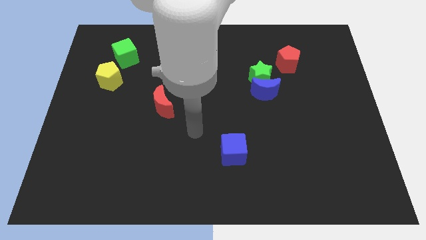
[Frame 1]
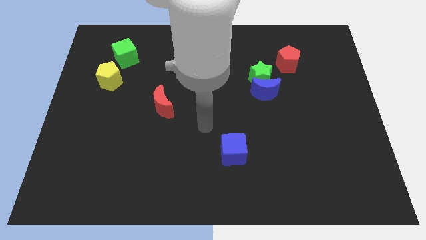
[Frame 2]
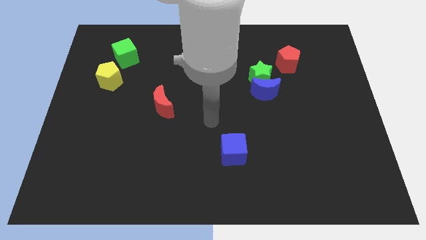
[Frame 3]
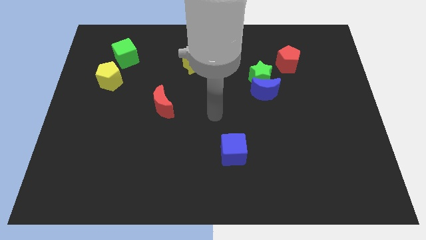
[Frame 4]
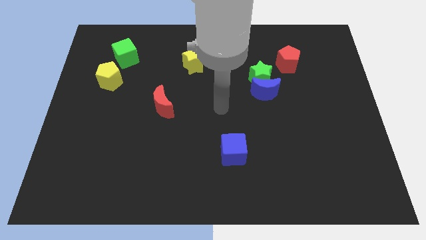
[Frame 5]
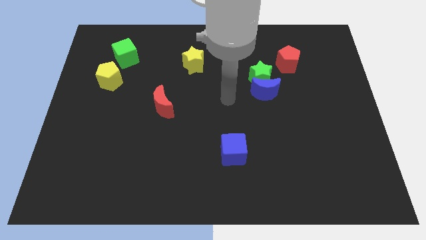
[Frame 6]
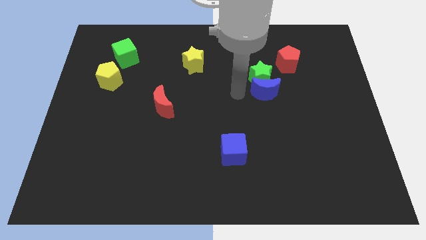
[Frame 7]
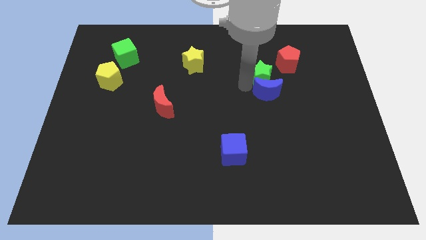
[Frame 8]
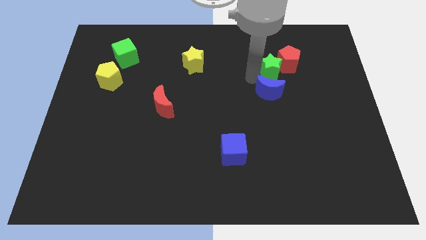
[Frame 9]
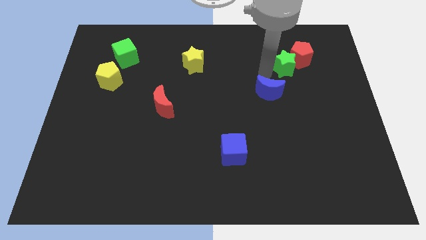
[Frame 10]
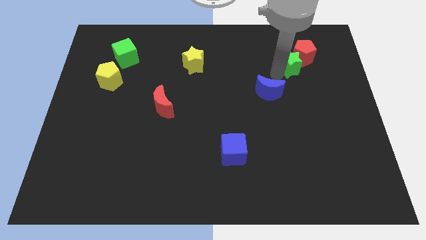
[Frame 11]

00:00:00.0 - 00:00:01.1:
move the blue moon away from the green star

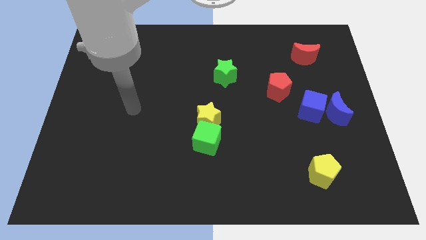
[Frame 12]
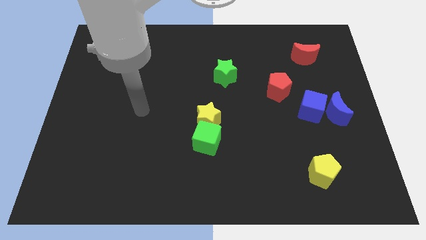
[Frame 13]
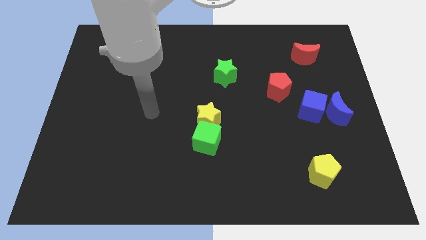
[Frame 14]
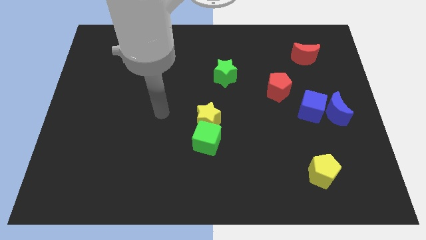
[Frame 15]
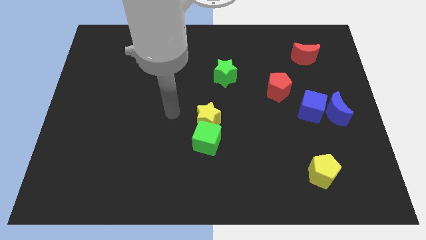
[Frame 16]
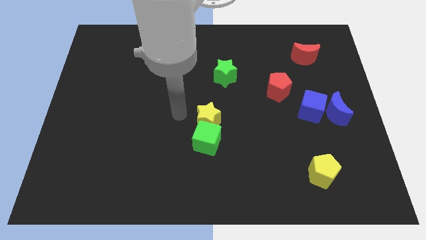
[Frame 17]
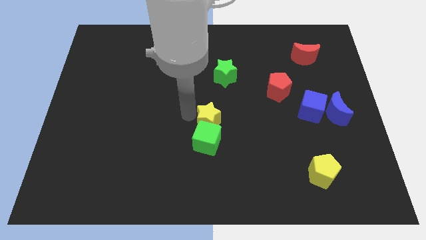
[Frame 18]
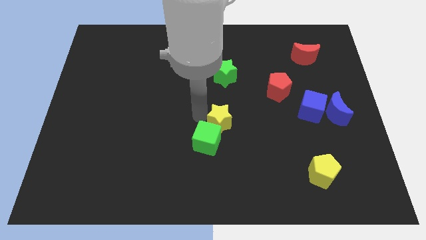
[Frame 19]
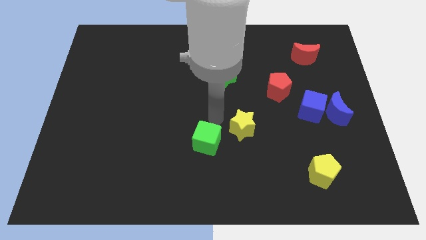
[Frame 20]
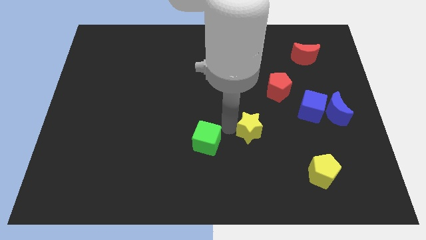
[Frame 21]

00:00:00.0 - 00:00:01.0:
move the green cube away from the yellow star

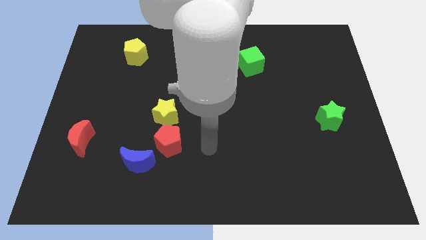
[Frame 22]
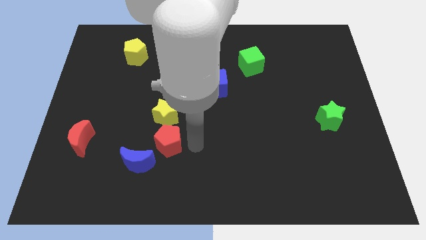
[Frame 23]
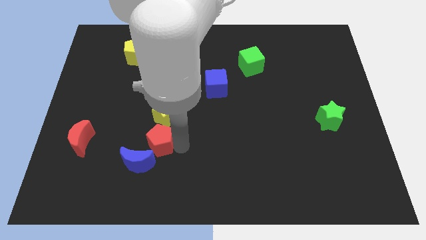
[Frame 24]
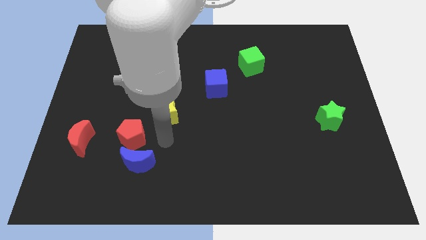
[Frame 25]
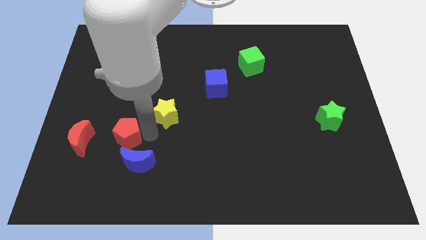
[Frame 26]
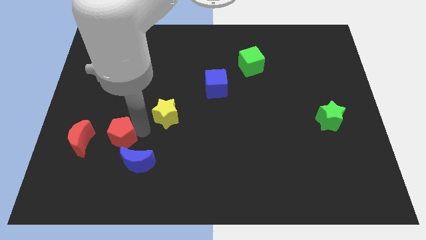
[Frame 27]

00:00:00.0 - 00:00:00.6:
move the yellow star away from the red pentagon

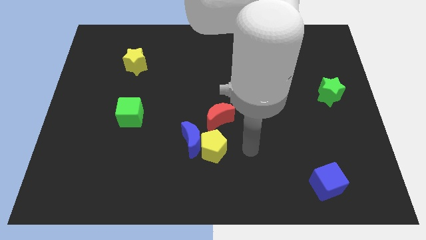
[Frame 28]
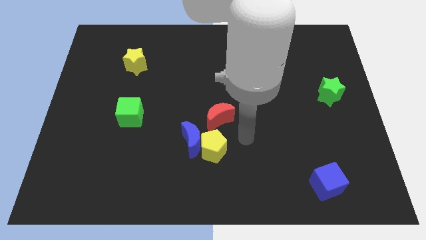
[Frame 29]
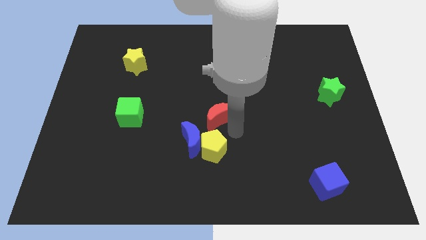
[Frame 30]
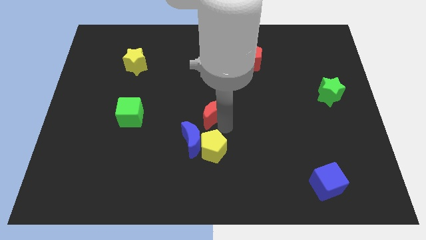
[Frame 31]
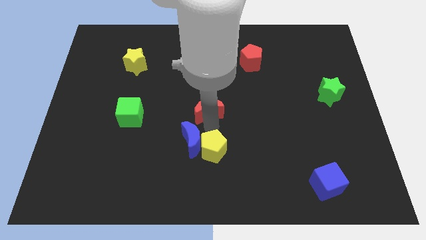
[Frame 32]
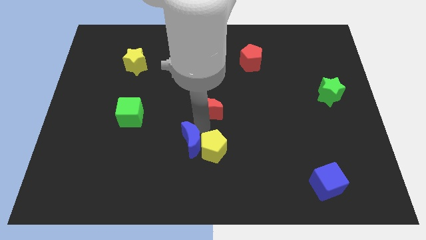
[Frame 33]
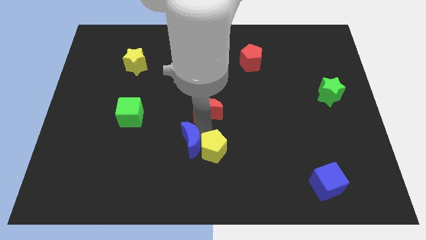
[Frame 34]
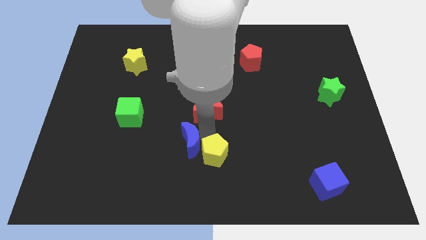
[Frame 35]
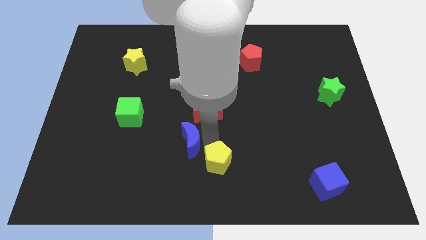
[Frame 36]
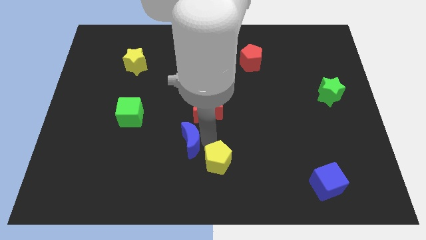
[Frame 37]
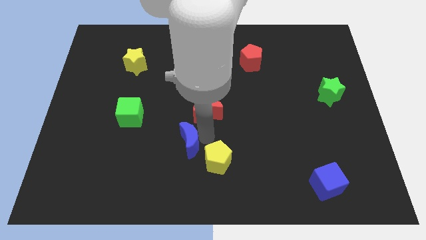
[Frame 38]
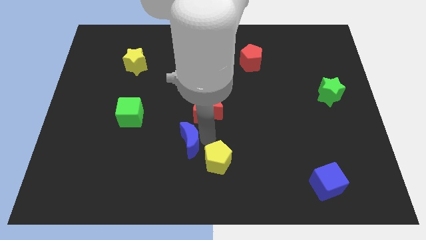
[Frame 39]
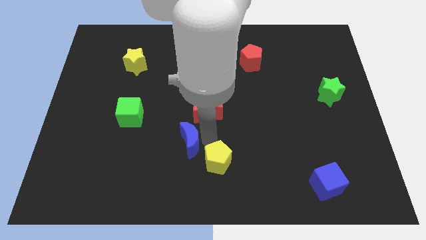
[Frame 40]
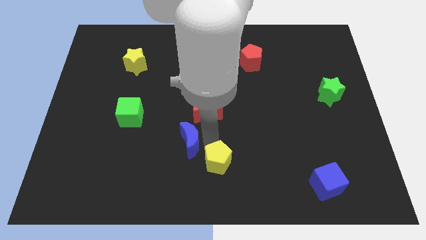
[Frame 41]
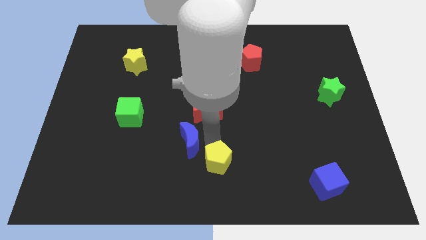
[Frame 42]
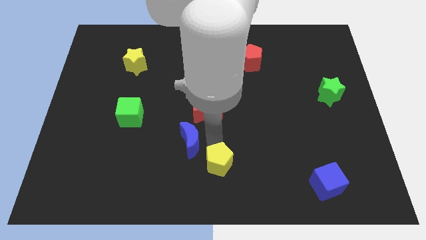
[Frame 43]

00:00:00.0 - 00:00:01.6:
move the yellow pentagon away from the blue moon and red moon

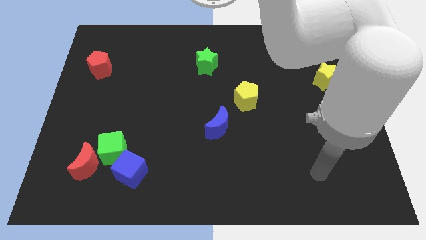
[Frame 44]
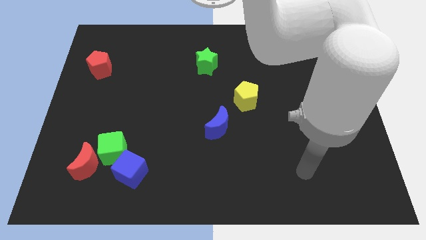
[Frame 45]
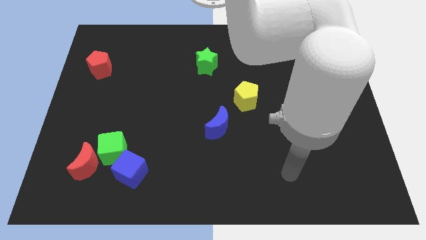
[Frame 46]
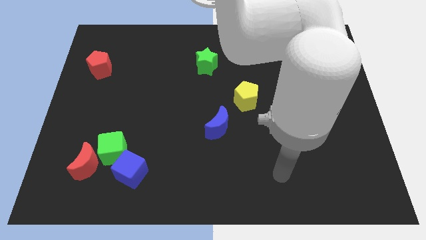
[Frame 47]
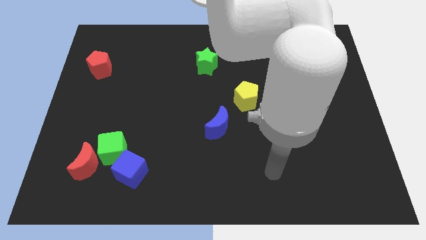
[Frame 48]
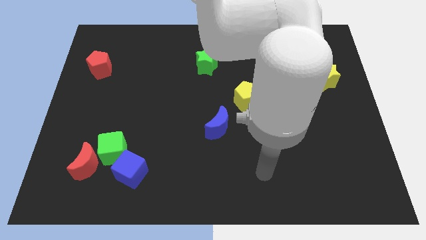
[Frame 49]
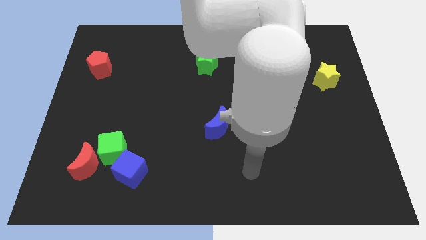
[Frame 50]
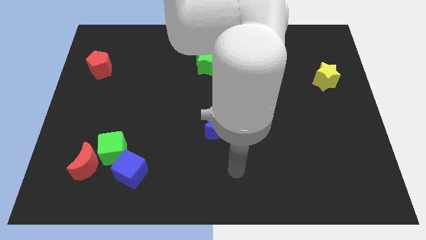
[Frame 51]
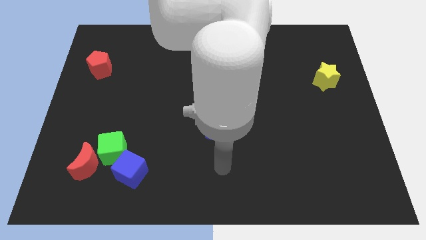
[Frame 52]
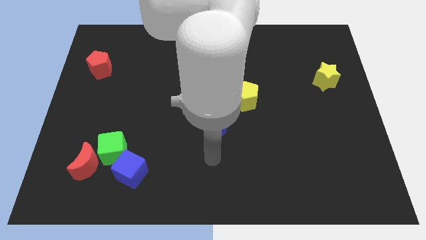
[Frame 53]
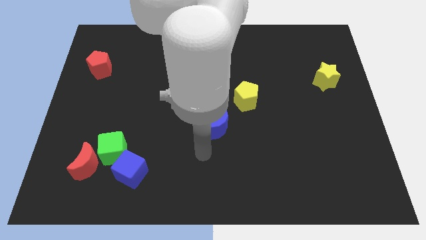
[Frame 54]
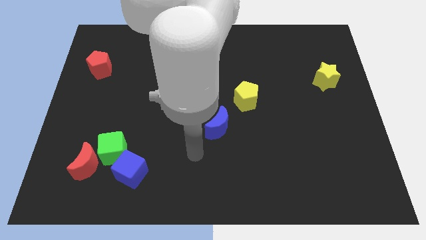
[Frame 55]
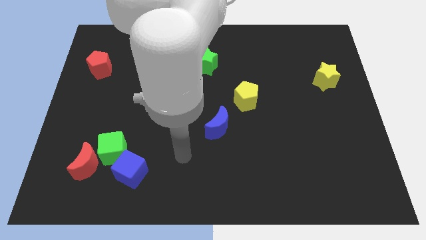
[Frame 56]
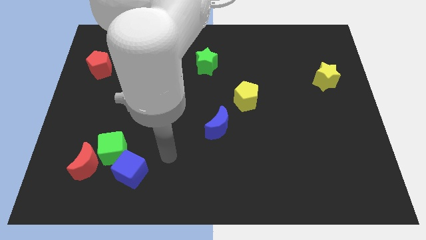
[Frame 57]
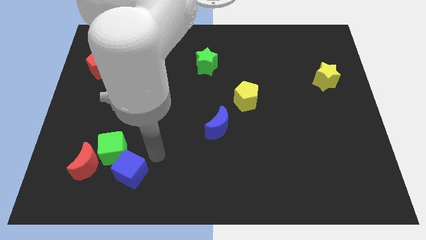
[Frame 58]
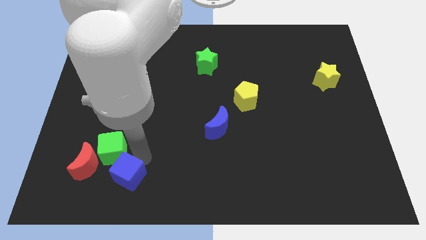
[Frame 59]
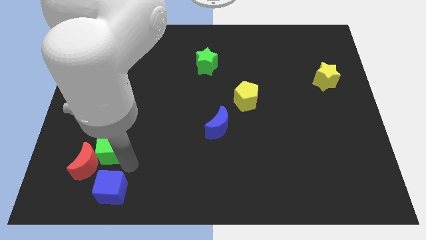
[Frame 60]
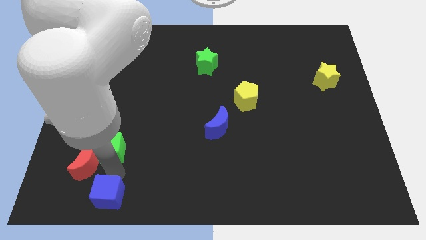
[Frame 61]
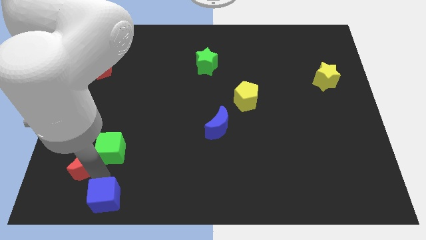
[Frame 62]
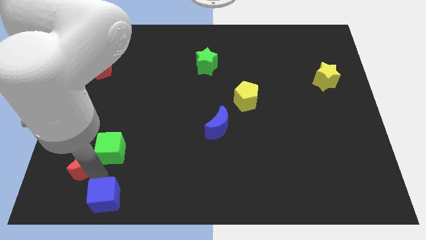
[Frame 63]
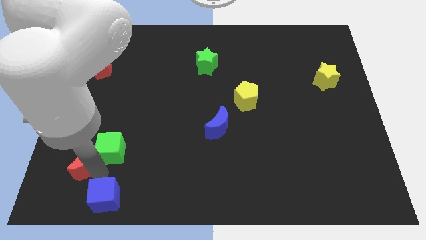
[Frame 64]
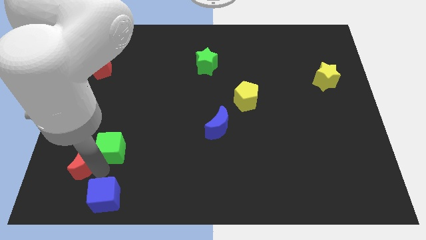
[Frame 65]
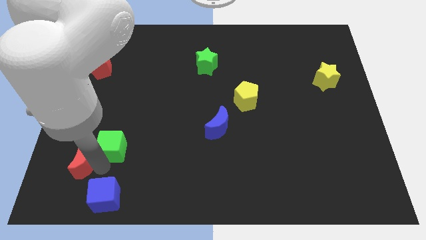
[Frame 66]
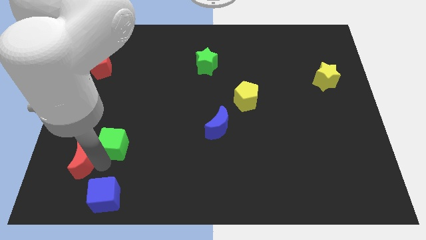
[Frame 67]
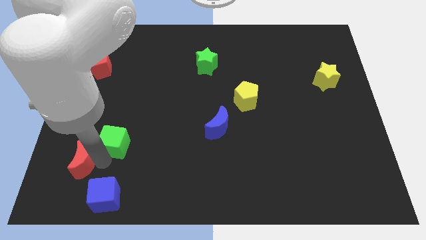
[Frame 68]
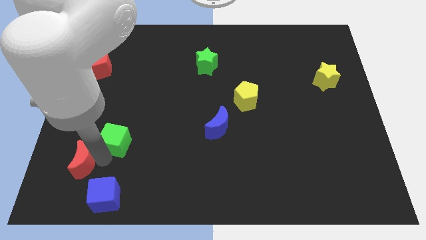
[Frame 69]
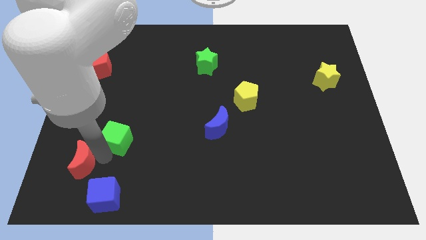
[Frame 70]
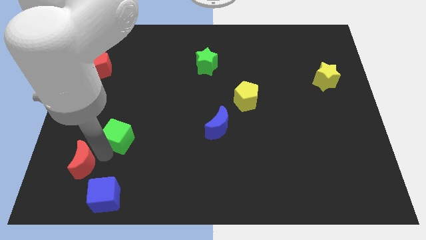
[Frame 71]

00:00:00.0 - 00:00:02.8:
pull the green cube apart from the red moon and blue cube

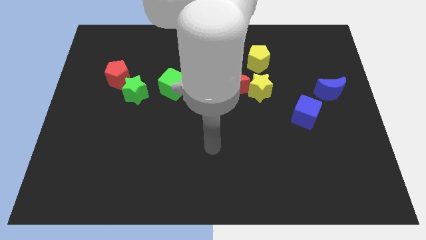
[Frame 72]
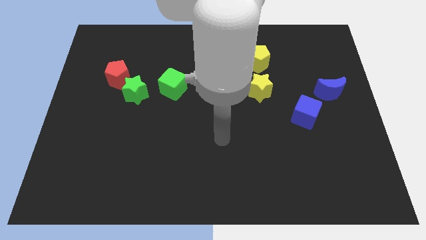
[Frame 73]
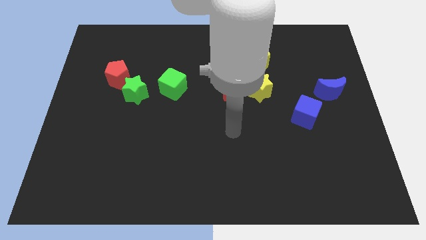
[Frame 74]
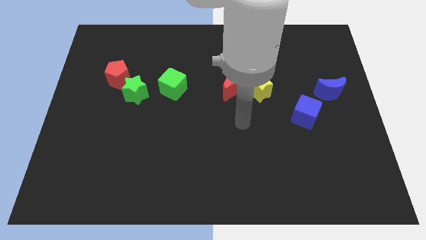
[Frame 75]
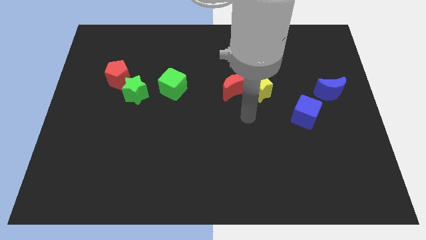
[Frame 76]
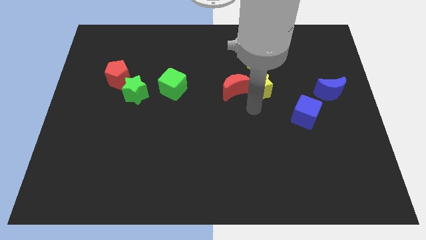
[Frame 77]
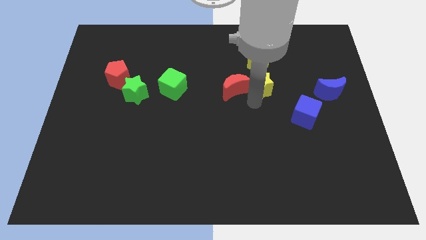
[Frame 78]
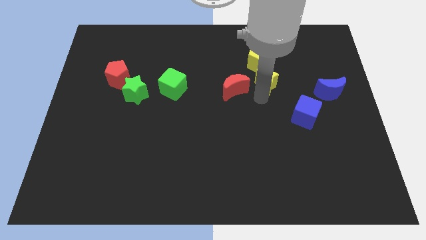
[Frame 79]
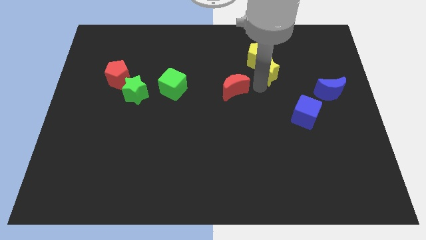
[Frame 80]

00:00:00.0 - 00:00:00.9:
move the red moon away from the yellow star

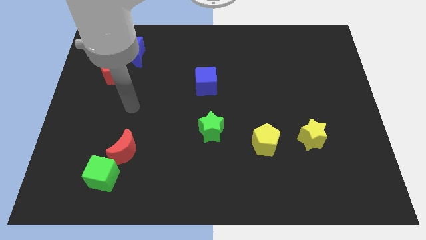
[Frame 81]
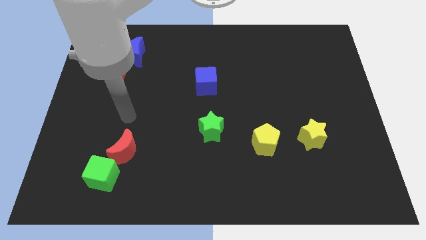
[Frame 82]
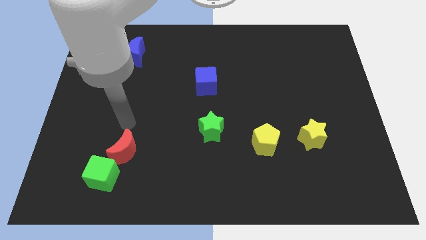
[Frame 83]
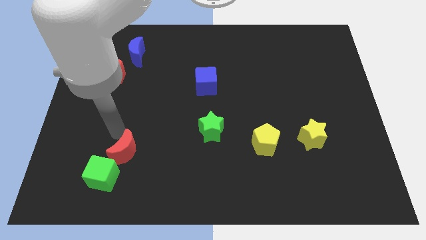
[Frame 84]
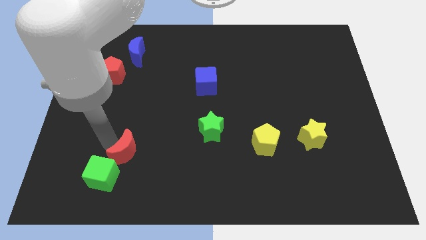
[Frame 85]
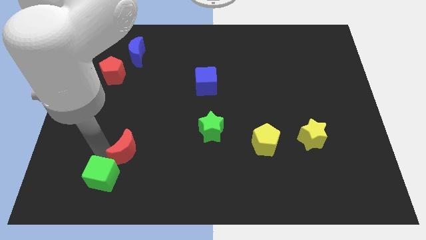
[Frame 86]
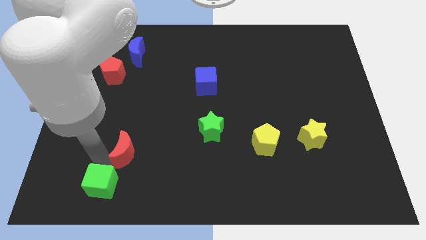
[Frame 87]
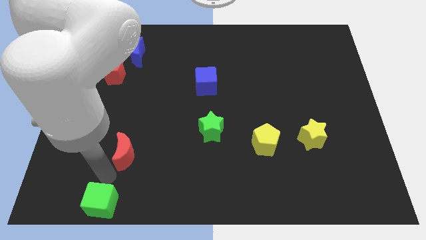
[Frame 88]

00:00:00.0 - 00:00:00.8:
separate the red moon from the green cube

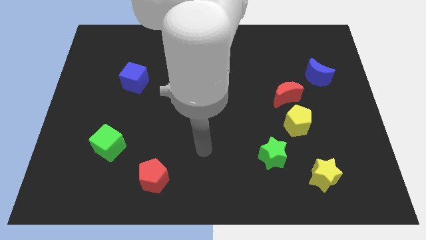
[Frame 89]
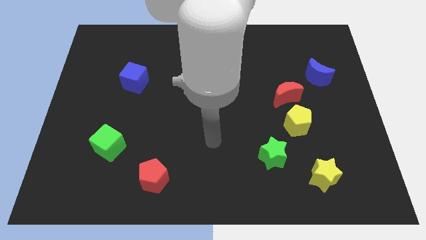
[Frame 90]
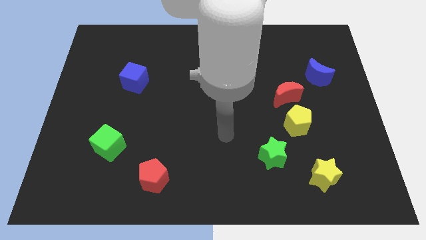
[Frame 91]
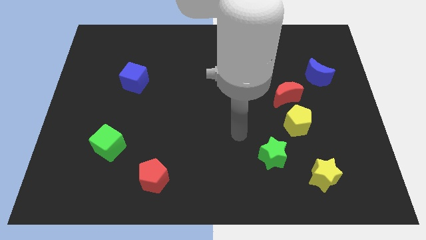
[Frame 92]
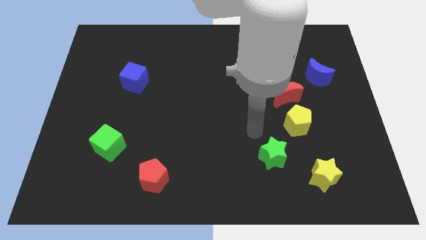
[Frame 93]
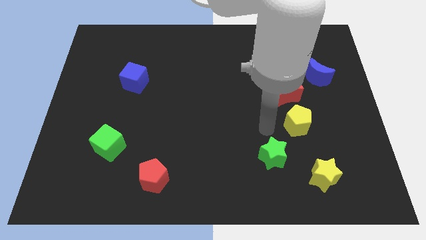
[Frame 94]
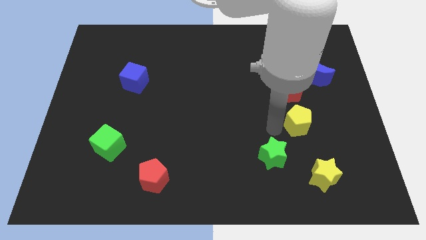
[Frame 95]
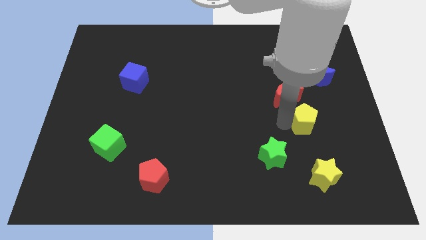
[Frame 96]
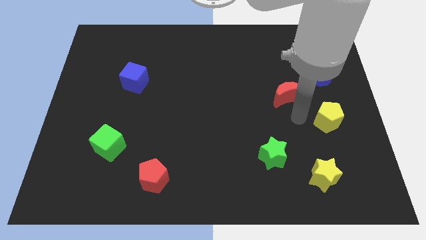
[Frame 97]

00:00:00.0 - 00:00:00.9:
move the red moon away from the yellow pentagon
